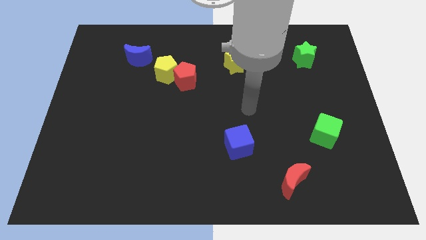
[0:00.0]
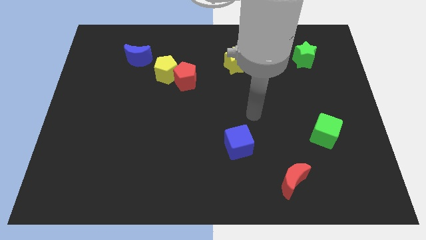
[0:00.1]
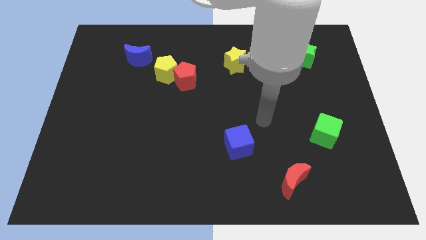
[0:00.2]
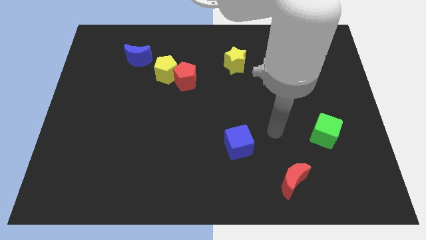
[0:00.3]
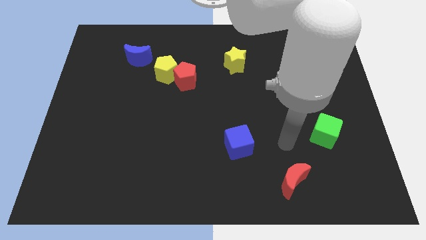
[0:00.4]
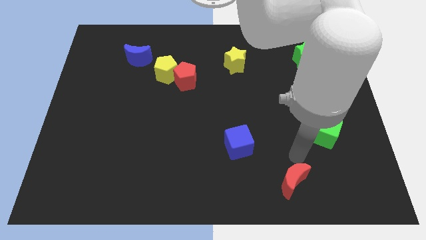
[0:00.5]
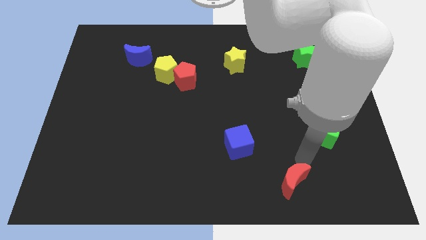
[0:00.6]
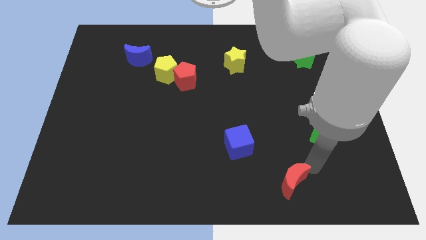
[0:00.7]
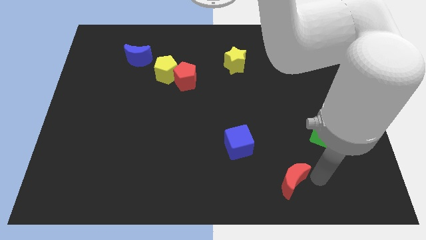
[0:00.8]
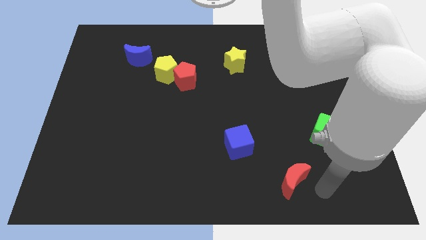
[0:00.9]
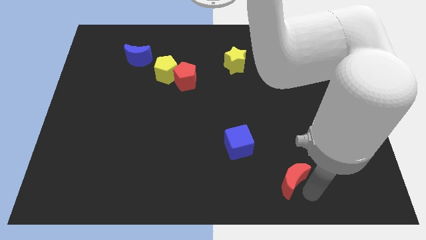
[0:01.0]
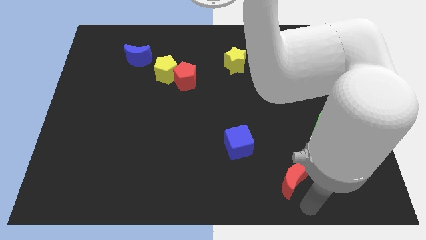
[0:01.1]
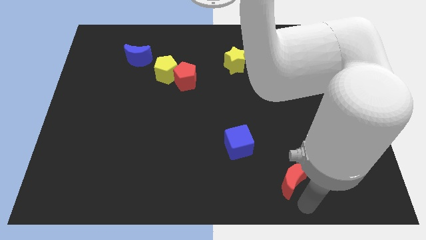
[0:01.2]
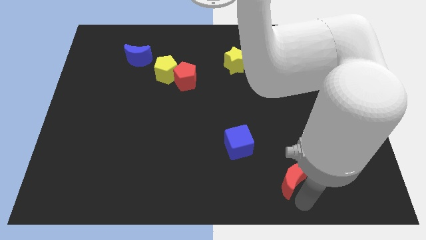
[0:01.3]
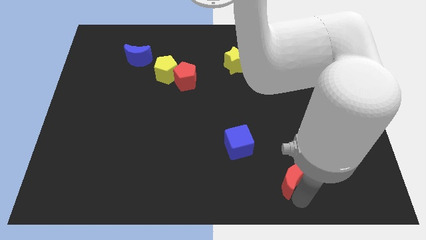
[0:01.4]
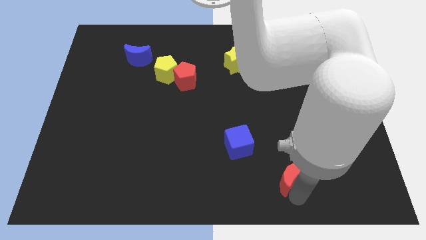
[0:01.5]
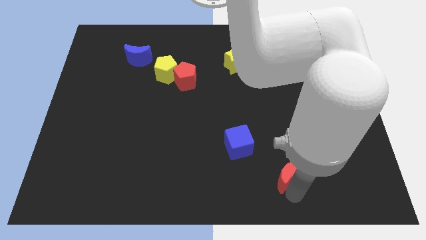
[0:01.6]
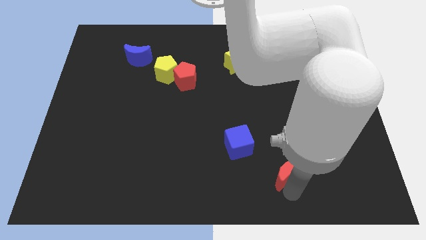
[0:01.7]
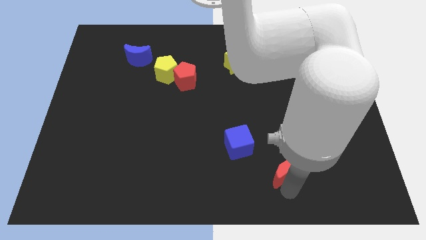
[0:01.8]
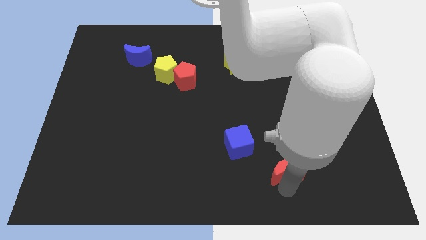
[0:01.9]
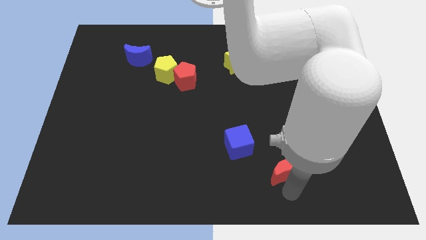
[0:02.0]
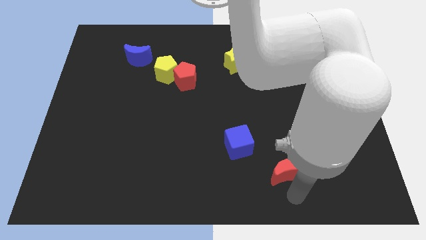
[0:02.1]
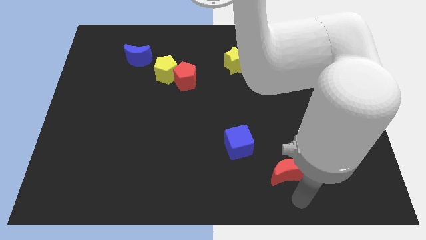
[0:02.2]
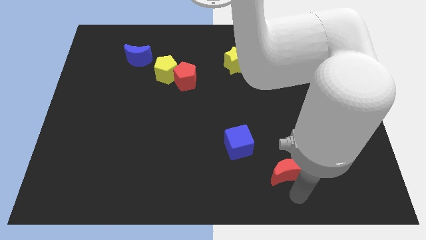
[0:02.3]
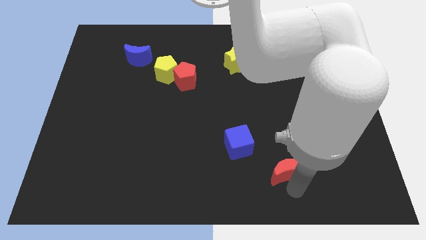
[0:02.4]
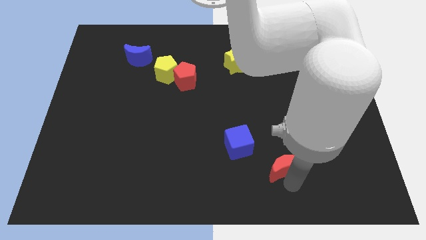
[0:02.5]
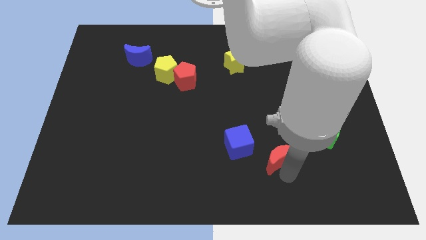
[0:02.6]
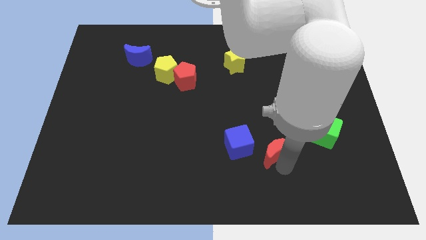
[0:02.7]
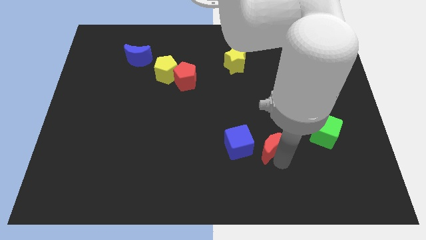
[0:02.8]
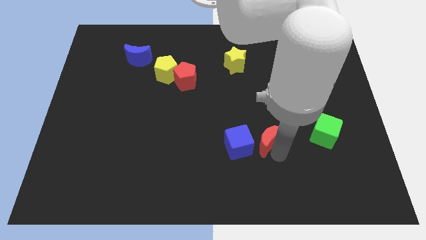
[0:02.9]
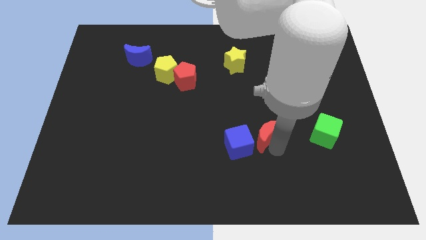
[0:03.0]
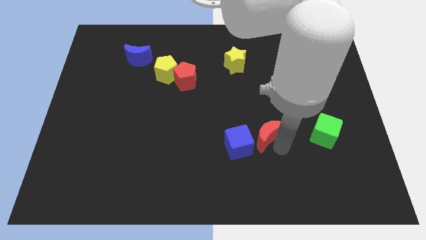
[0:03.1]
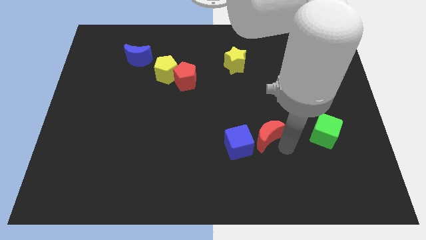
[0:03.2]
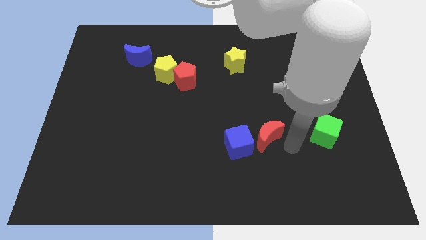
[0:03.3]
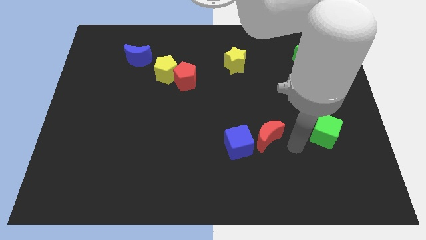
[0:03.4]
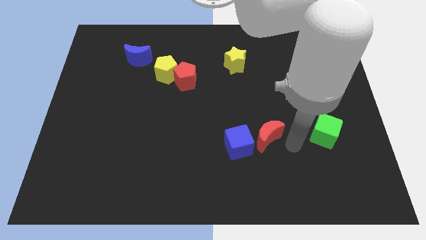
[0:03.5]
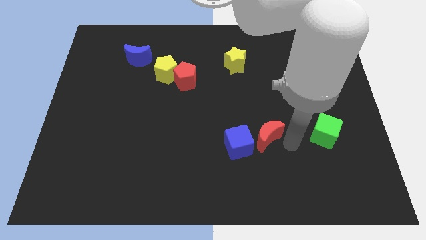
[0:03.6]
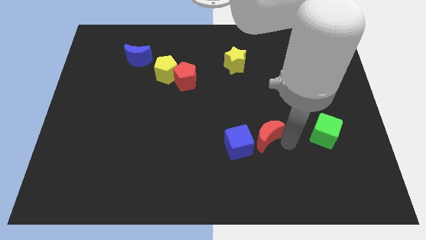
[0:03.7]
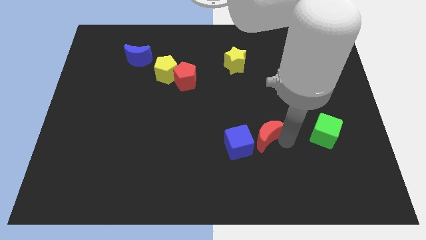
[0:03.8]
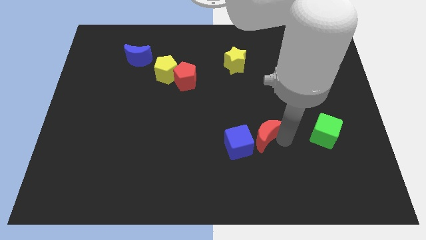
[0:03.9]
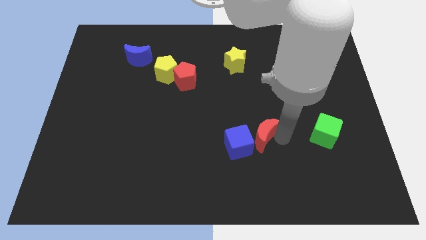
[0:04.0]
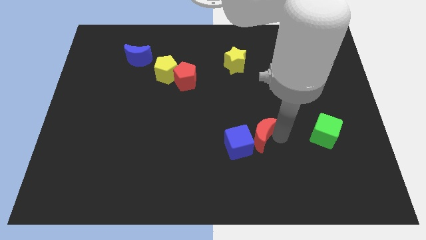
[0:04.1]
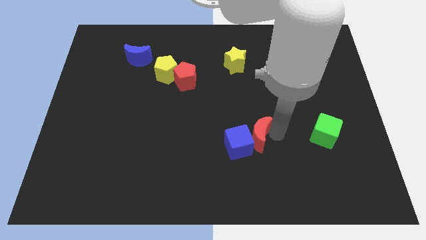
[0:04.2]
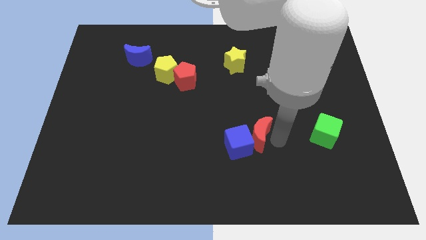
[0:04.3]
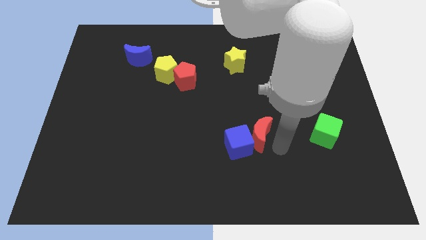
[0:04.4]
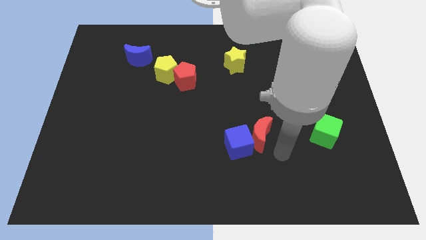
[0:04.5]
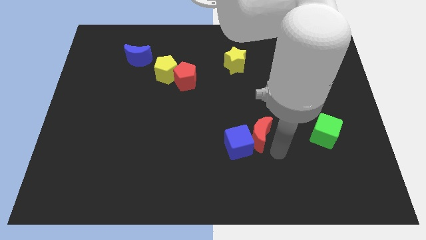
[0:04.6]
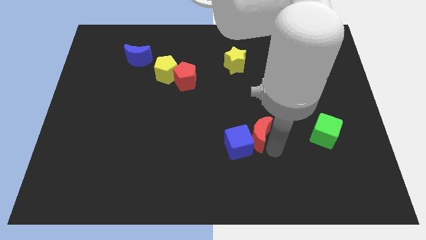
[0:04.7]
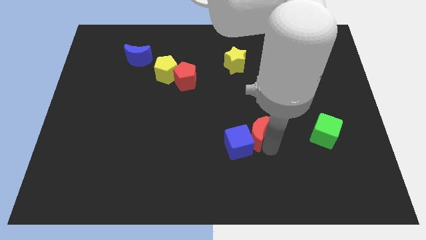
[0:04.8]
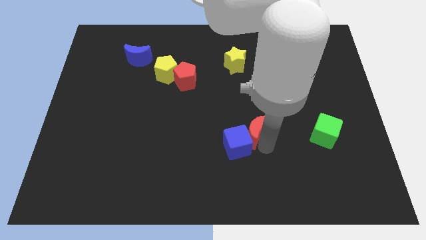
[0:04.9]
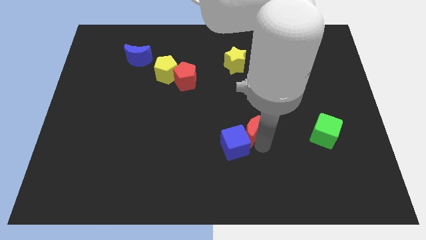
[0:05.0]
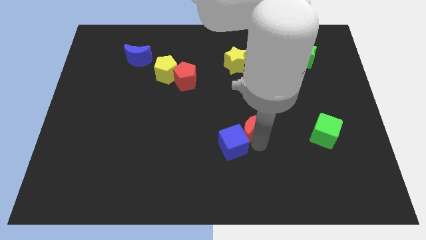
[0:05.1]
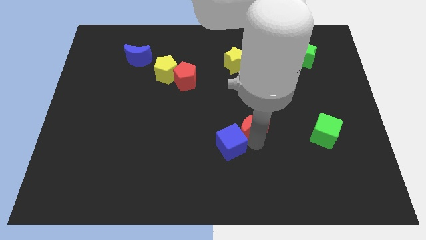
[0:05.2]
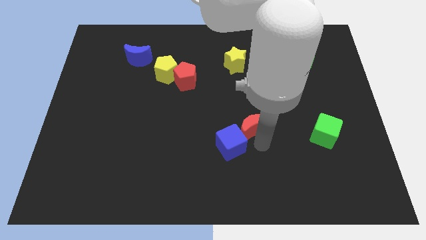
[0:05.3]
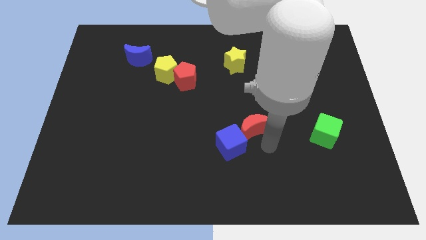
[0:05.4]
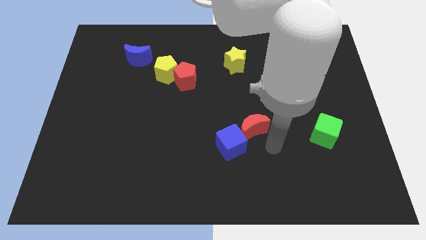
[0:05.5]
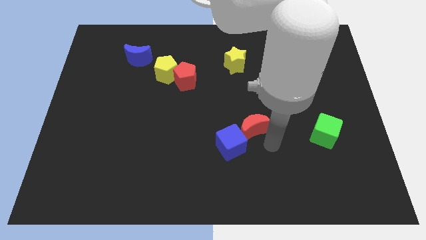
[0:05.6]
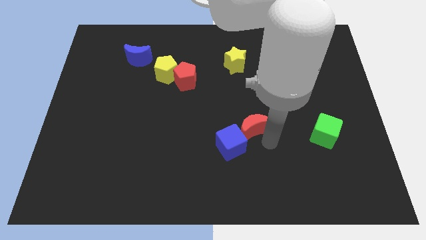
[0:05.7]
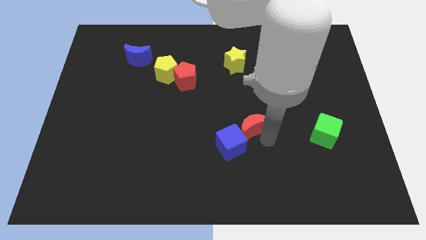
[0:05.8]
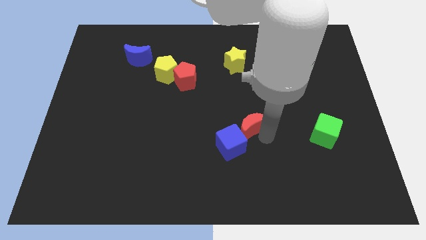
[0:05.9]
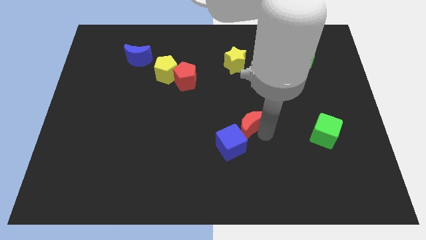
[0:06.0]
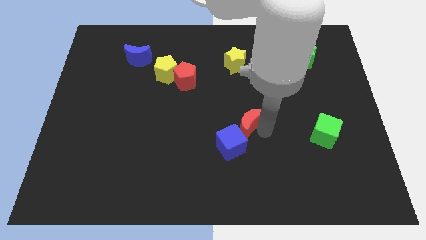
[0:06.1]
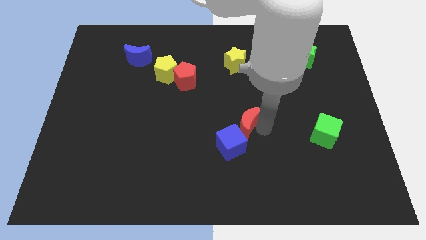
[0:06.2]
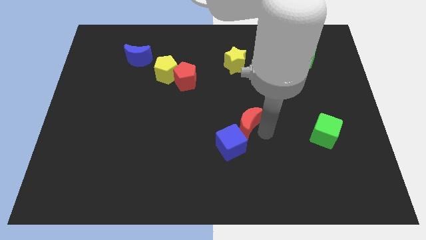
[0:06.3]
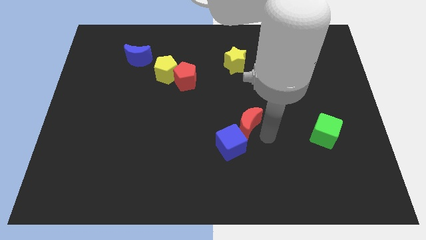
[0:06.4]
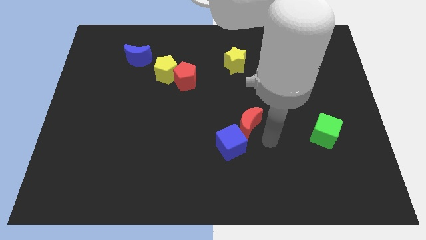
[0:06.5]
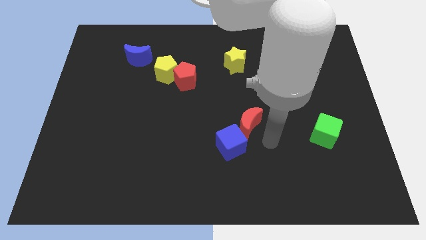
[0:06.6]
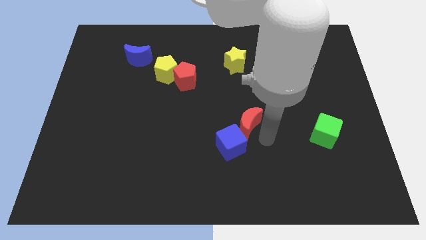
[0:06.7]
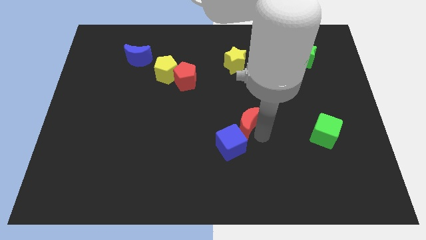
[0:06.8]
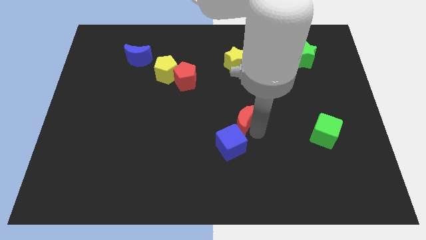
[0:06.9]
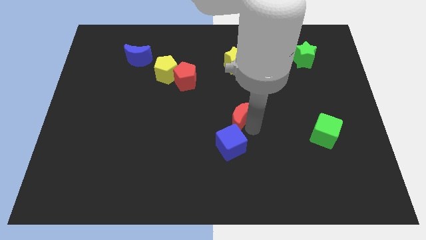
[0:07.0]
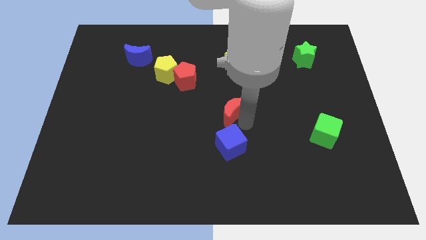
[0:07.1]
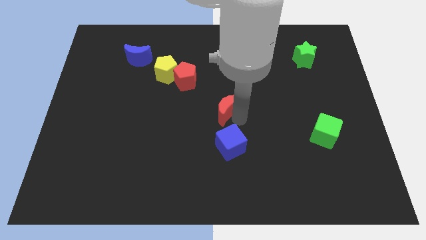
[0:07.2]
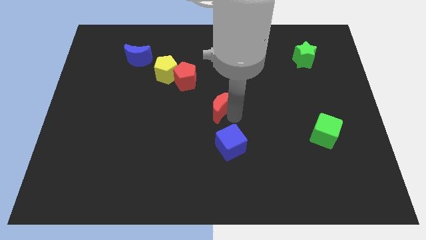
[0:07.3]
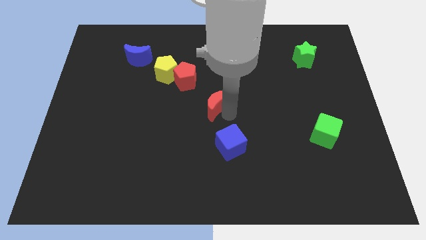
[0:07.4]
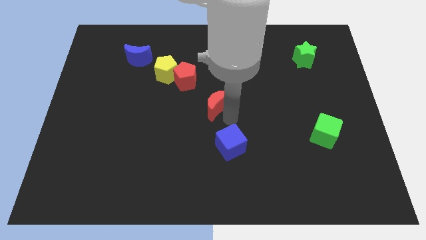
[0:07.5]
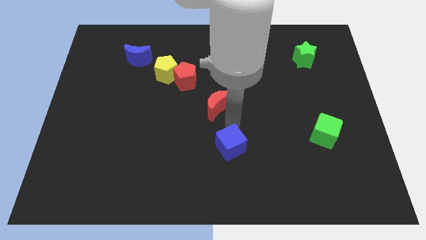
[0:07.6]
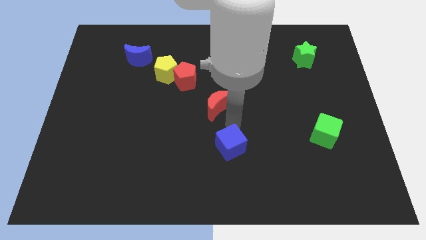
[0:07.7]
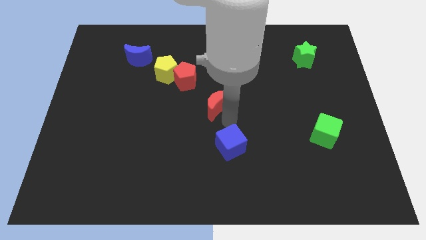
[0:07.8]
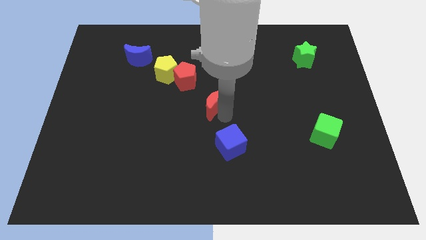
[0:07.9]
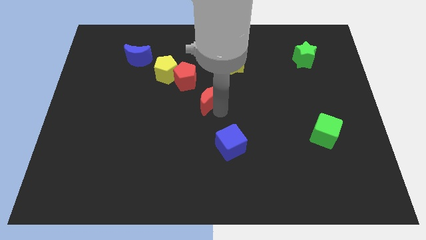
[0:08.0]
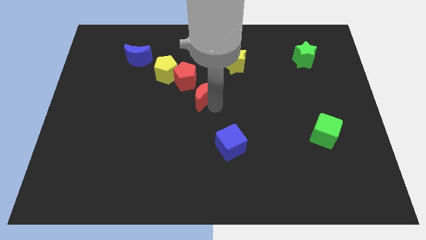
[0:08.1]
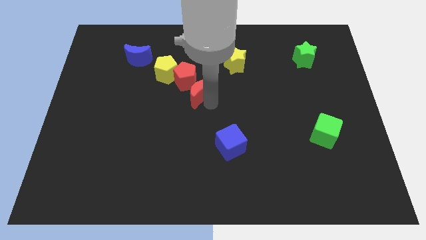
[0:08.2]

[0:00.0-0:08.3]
move the red moon towards the red pentagon
